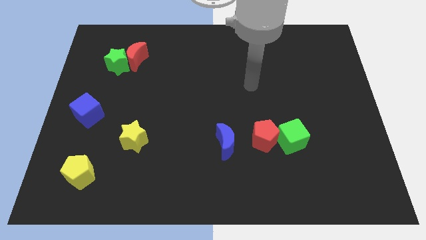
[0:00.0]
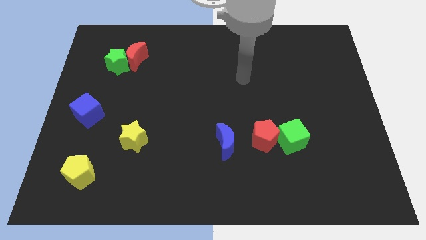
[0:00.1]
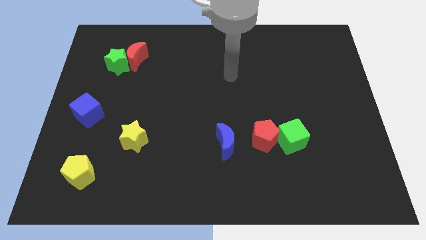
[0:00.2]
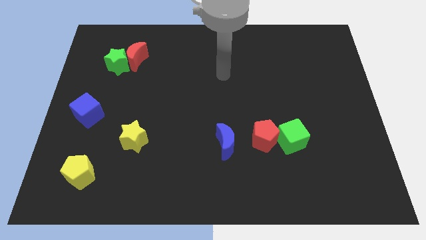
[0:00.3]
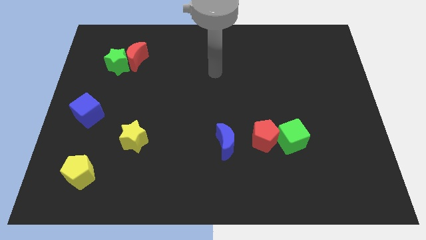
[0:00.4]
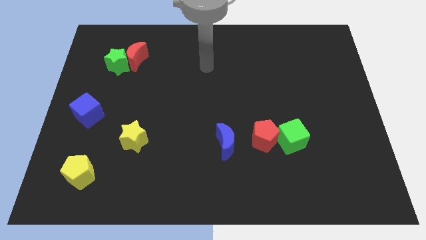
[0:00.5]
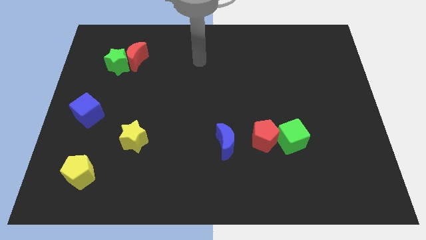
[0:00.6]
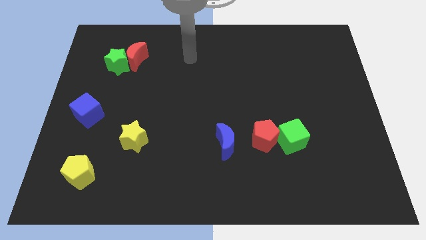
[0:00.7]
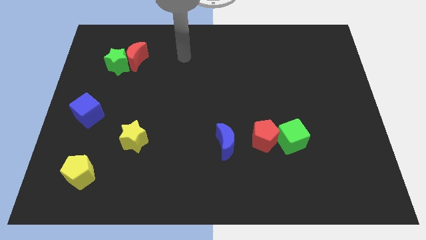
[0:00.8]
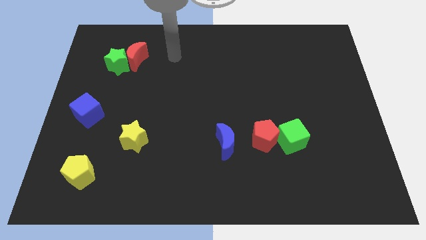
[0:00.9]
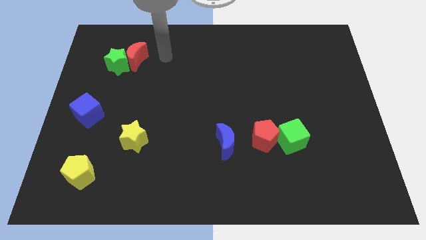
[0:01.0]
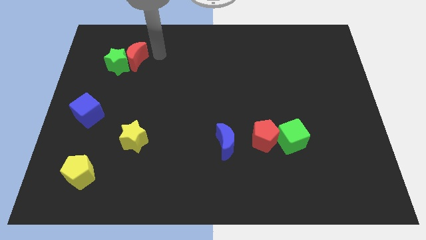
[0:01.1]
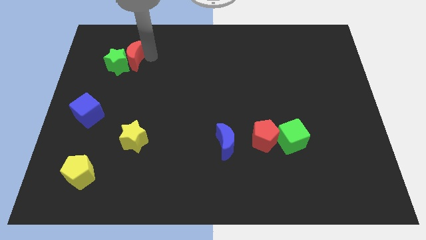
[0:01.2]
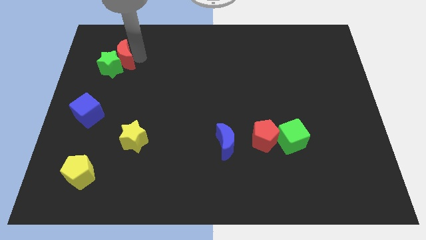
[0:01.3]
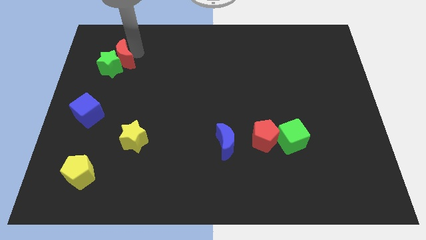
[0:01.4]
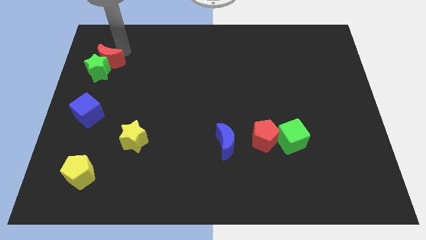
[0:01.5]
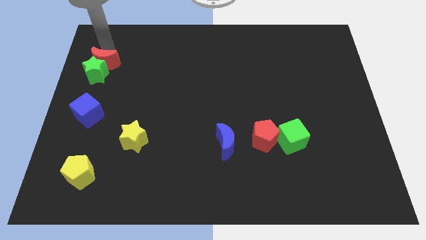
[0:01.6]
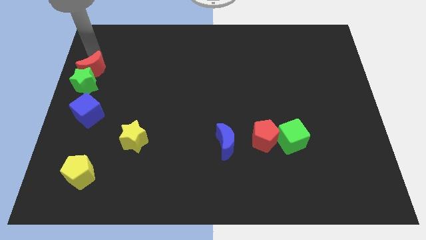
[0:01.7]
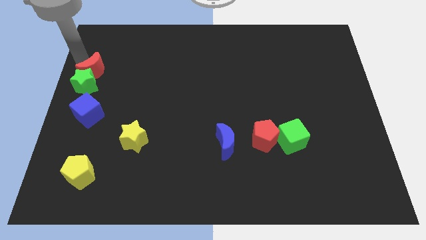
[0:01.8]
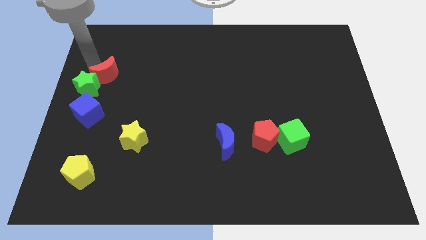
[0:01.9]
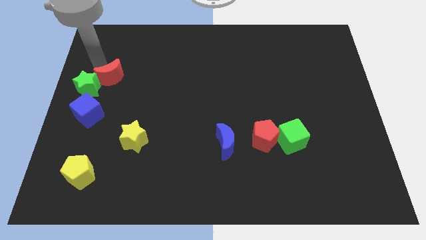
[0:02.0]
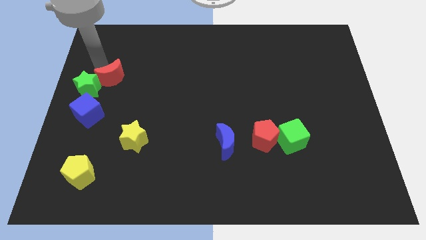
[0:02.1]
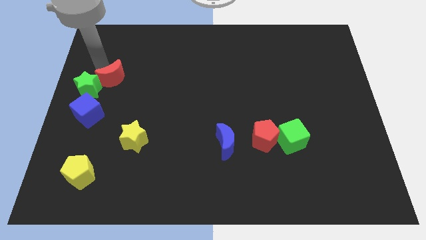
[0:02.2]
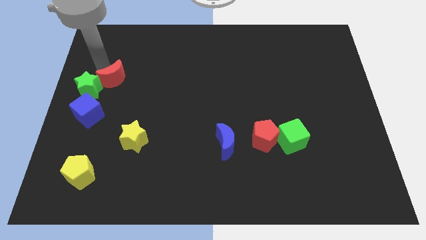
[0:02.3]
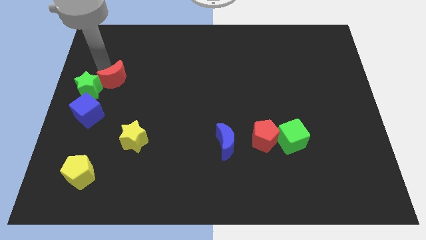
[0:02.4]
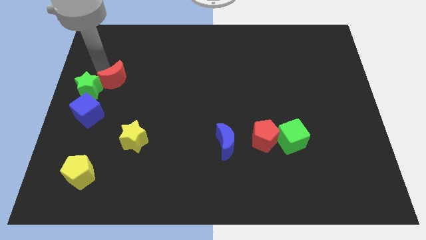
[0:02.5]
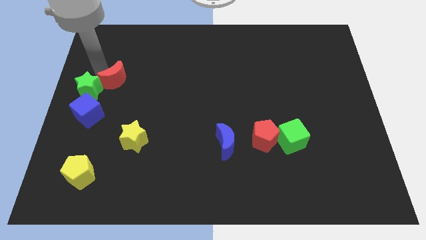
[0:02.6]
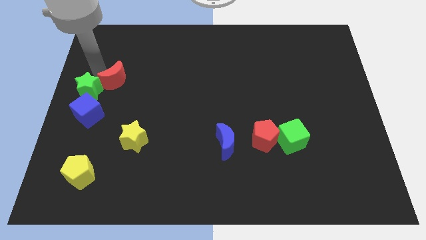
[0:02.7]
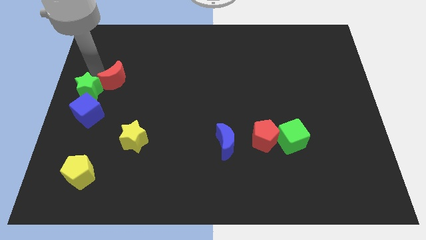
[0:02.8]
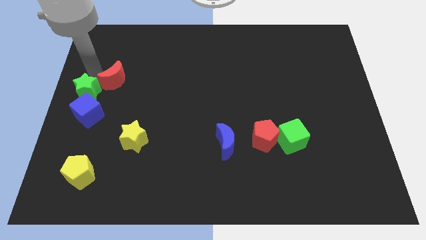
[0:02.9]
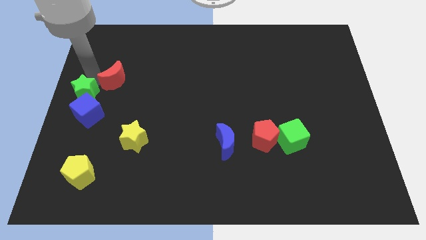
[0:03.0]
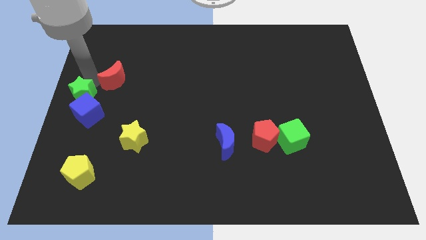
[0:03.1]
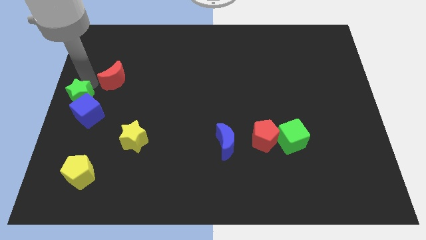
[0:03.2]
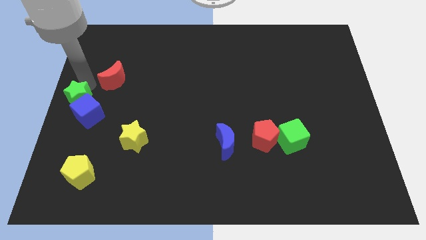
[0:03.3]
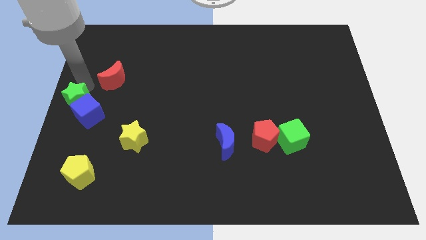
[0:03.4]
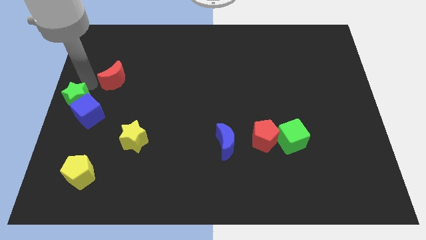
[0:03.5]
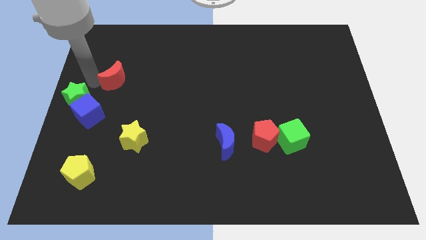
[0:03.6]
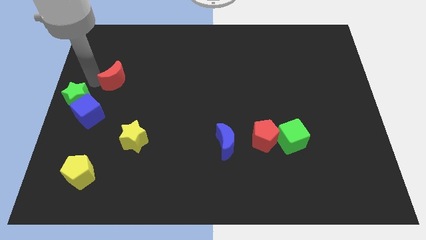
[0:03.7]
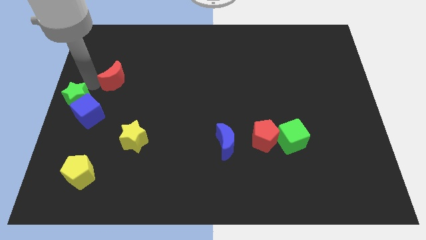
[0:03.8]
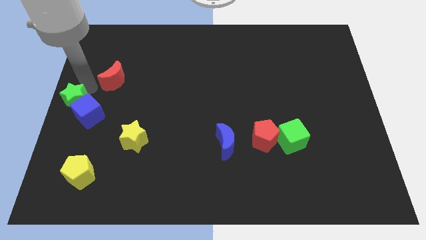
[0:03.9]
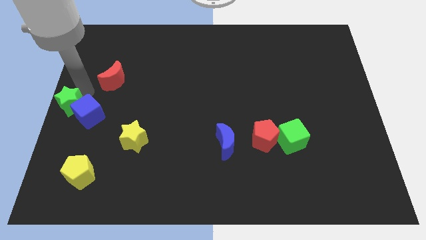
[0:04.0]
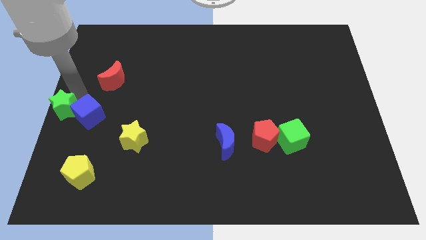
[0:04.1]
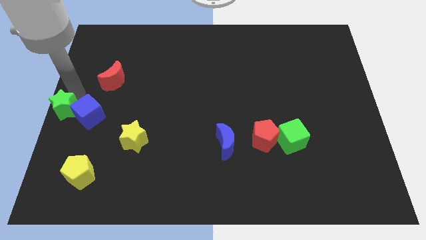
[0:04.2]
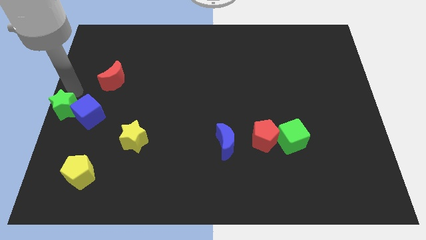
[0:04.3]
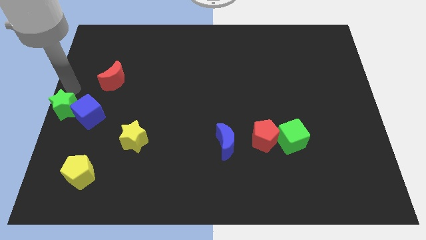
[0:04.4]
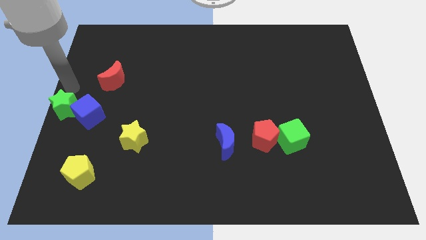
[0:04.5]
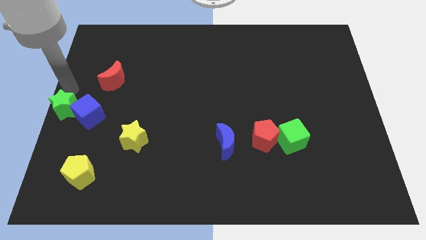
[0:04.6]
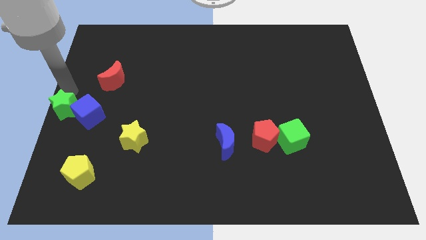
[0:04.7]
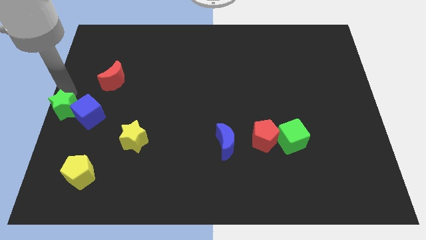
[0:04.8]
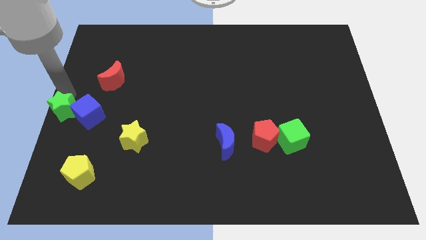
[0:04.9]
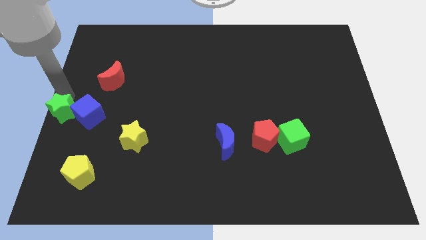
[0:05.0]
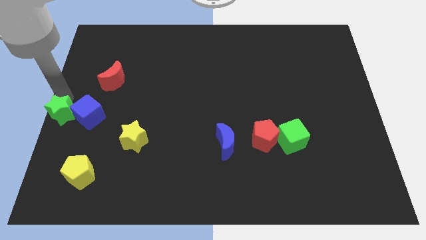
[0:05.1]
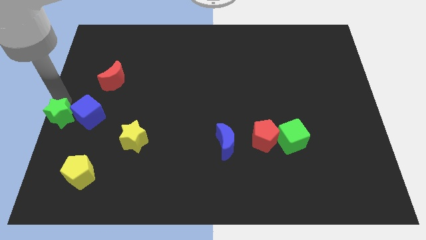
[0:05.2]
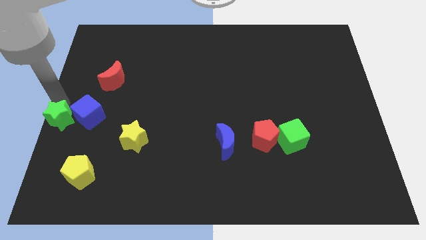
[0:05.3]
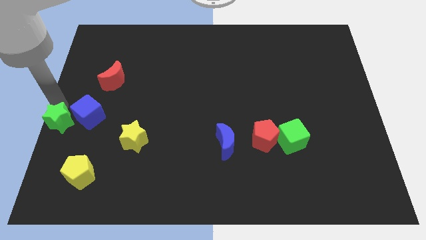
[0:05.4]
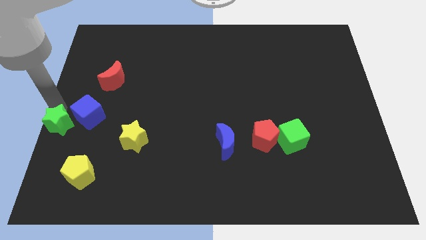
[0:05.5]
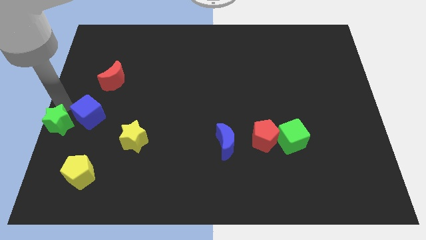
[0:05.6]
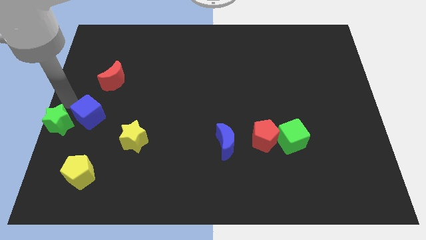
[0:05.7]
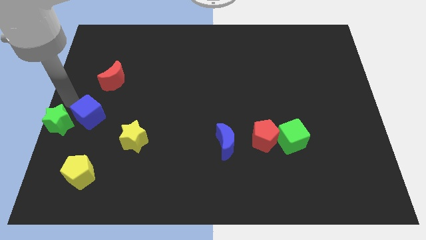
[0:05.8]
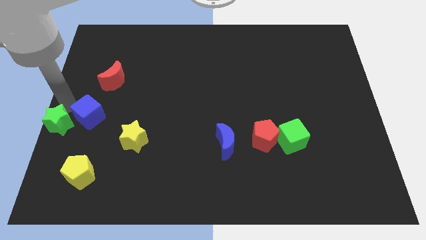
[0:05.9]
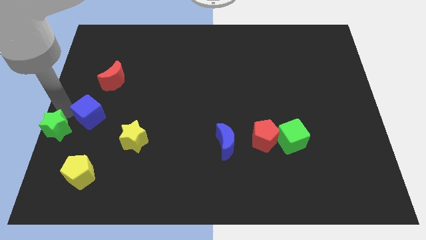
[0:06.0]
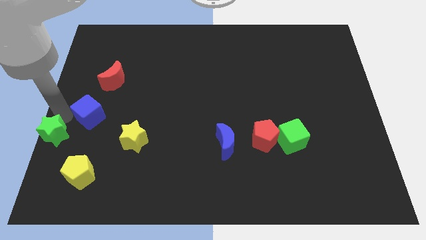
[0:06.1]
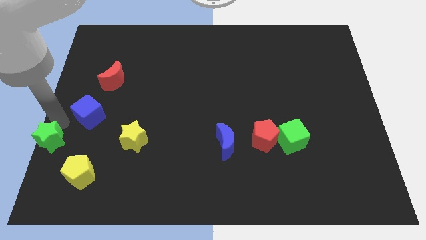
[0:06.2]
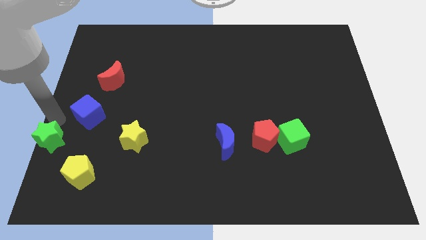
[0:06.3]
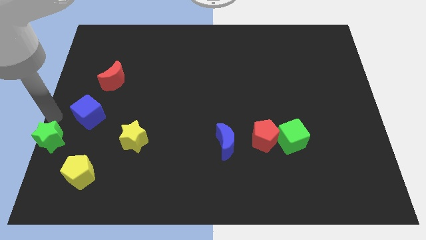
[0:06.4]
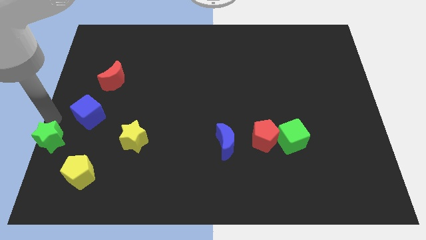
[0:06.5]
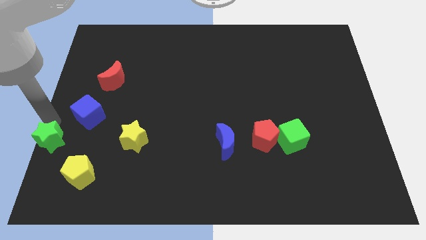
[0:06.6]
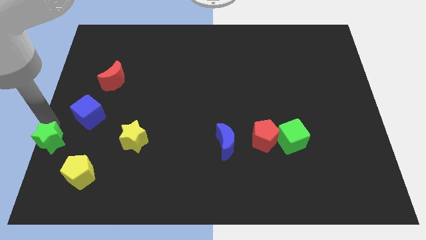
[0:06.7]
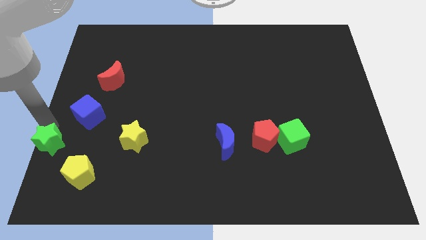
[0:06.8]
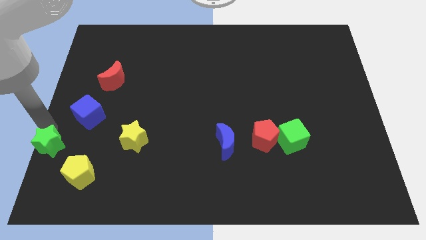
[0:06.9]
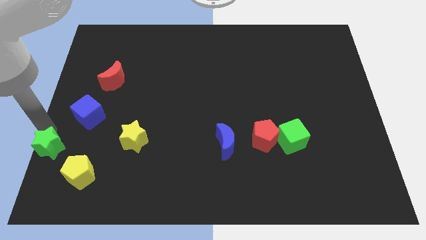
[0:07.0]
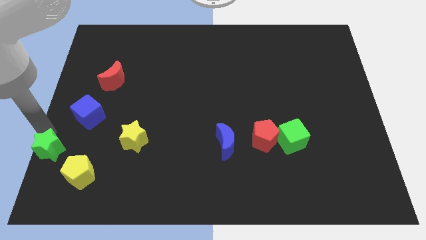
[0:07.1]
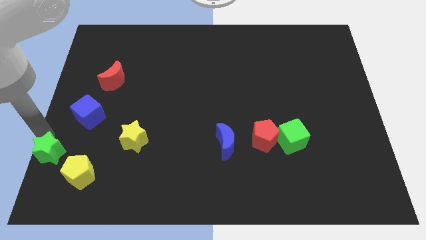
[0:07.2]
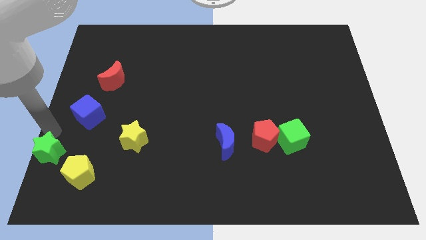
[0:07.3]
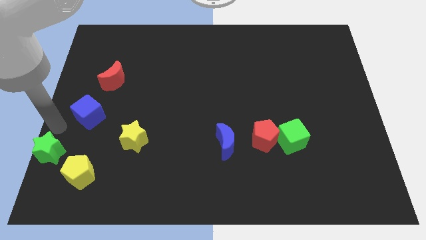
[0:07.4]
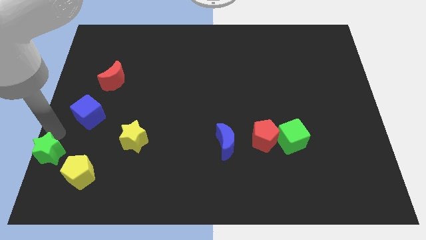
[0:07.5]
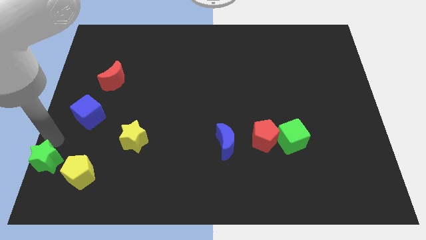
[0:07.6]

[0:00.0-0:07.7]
push the green star to the bottom left of the board
